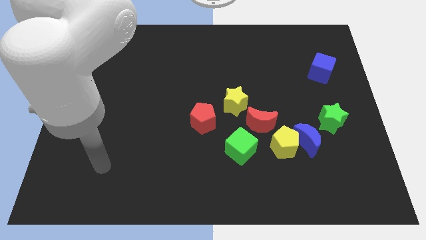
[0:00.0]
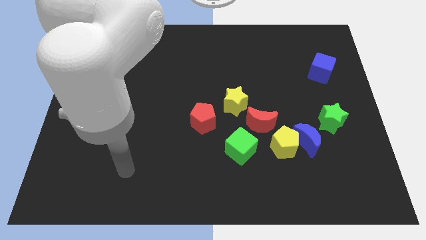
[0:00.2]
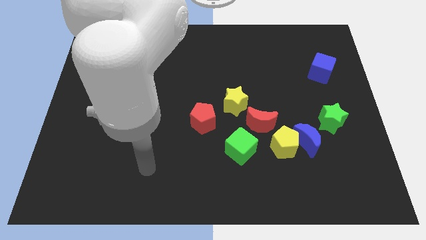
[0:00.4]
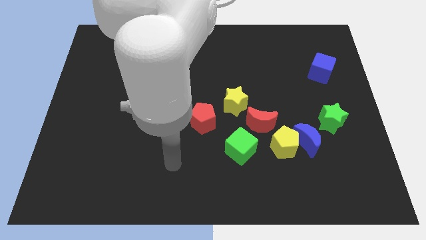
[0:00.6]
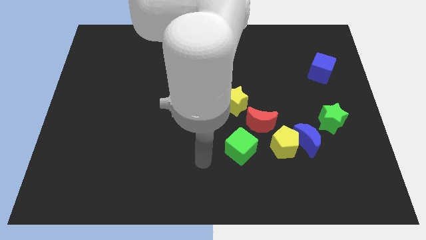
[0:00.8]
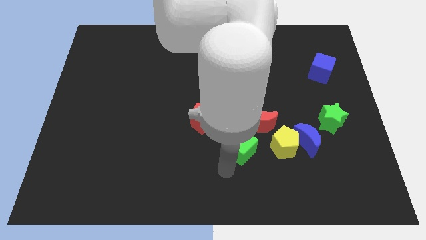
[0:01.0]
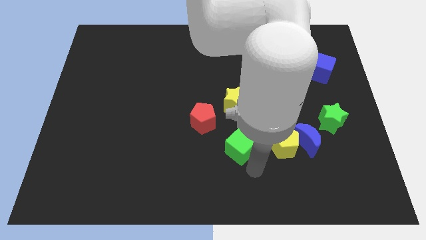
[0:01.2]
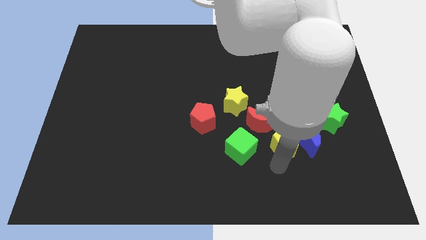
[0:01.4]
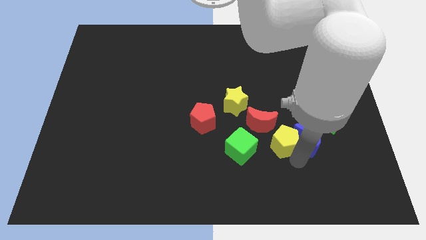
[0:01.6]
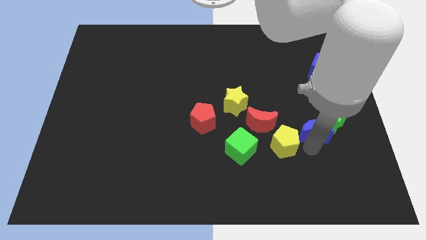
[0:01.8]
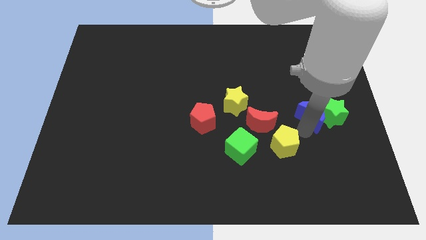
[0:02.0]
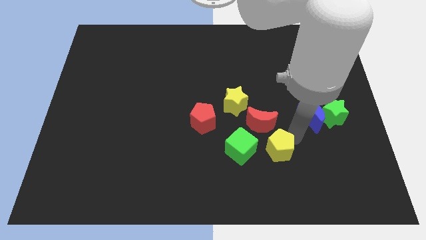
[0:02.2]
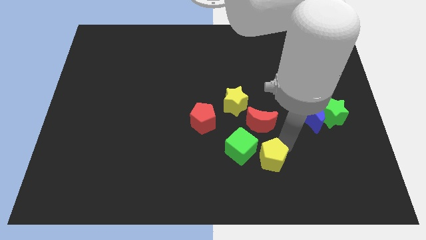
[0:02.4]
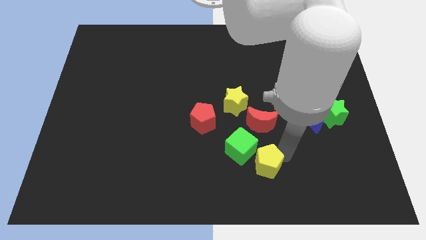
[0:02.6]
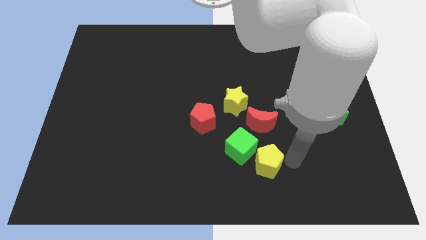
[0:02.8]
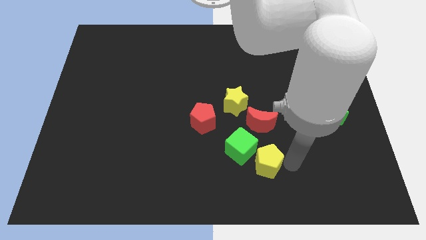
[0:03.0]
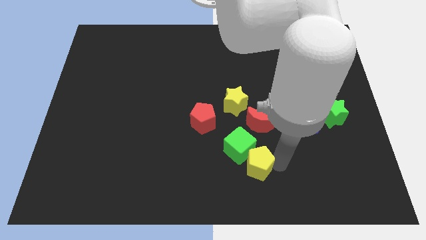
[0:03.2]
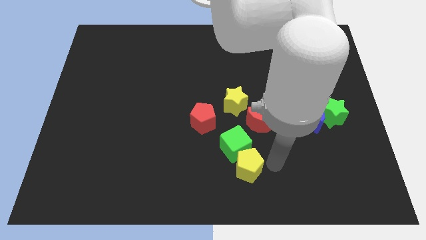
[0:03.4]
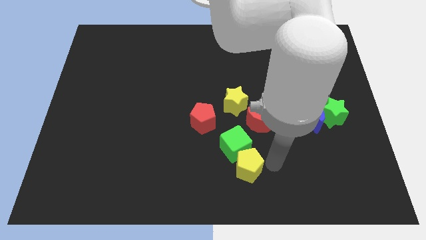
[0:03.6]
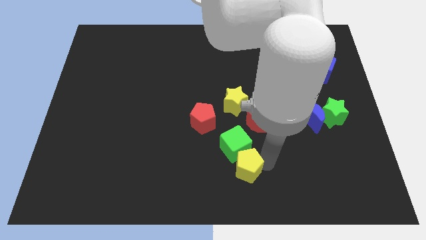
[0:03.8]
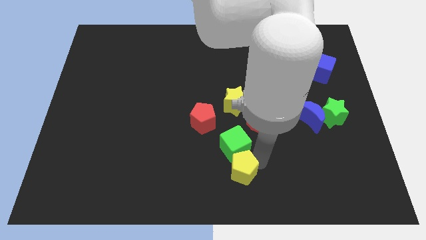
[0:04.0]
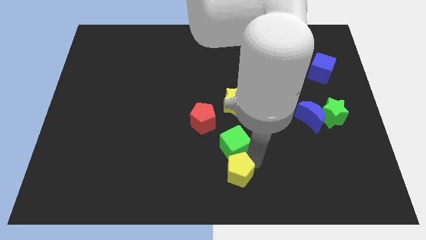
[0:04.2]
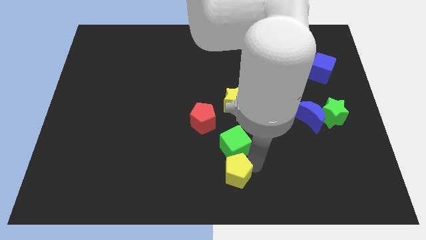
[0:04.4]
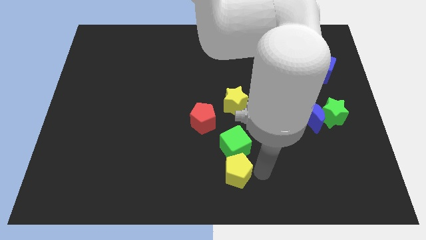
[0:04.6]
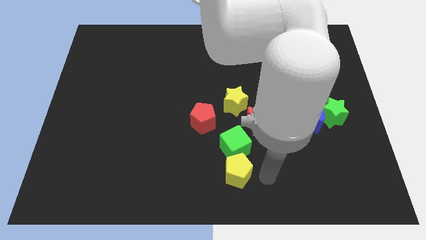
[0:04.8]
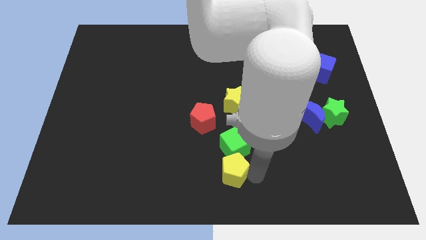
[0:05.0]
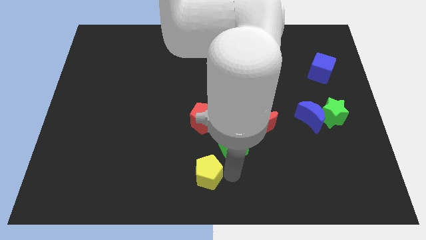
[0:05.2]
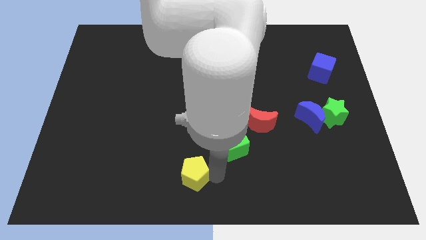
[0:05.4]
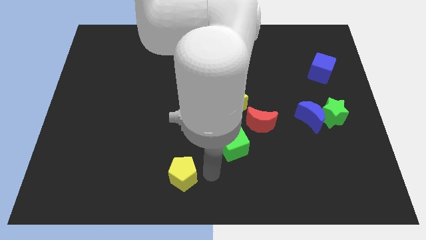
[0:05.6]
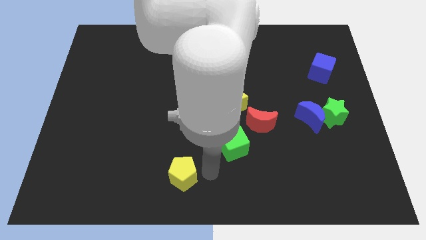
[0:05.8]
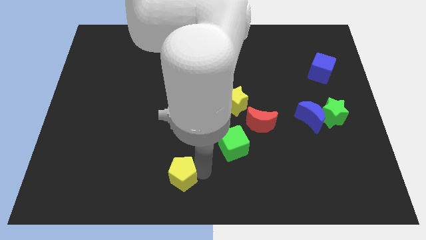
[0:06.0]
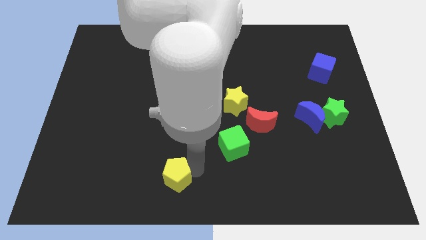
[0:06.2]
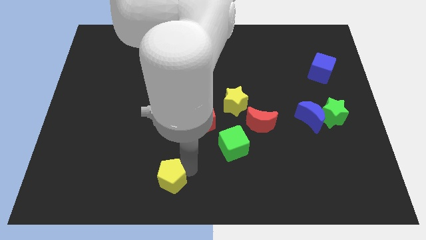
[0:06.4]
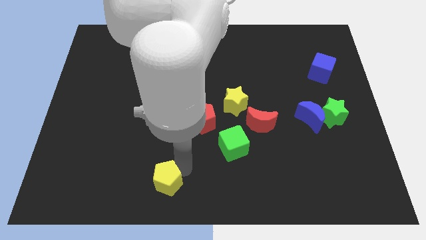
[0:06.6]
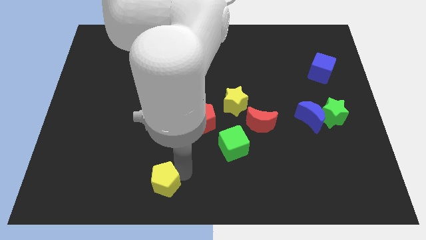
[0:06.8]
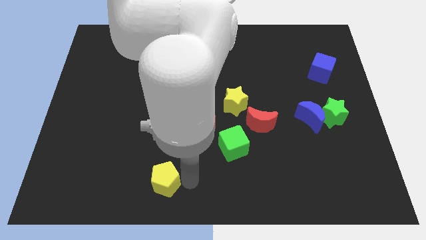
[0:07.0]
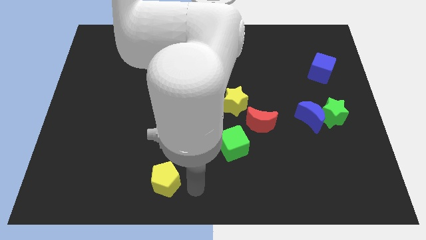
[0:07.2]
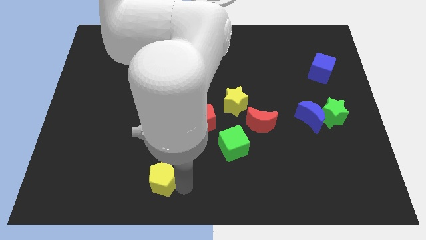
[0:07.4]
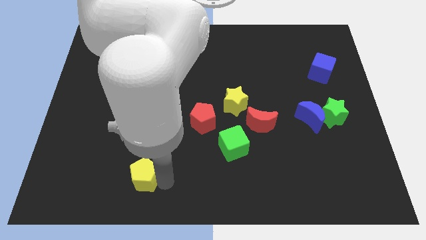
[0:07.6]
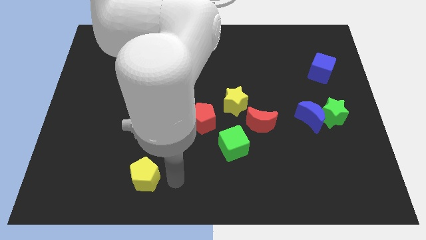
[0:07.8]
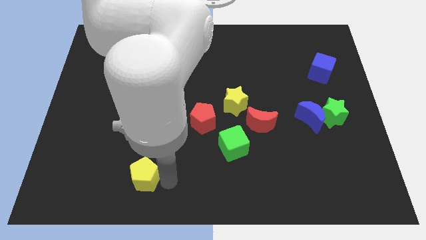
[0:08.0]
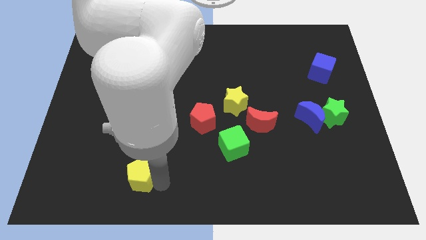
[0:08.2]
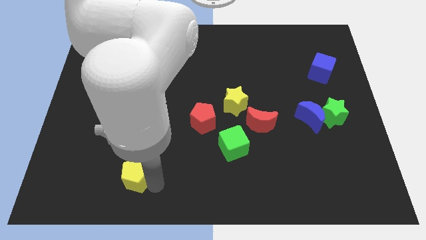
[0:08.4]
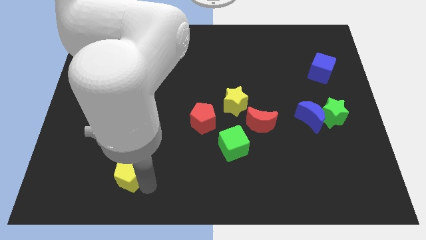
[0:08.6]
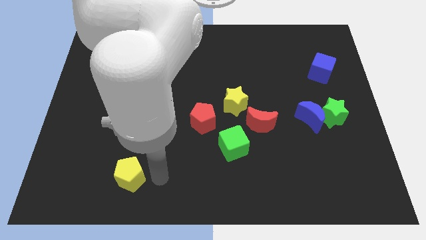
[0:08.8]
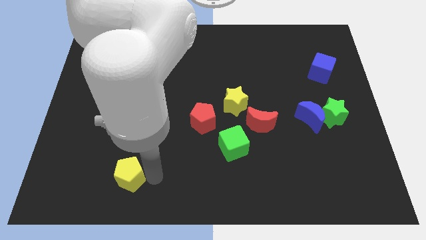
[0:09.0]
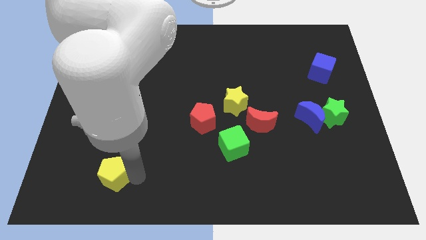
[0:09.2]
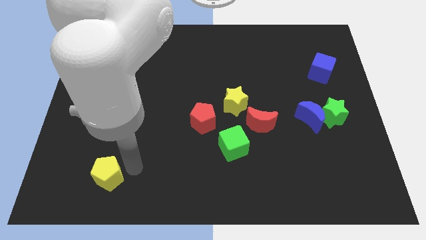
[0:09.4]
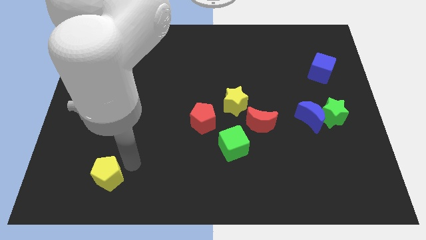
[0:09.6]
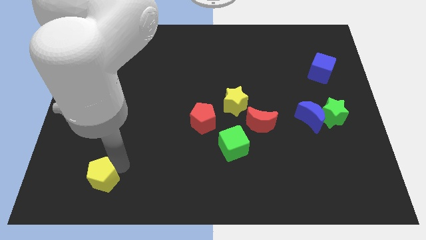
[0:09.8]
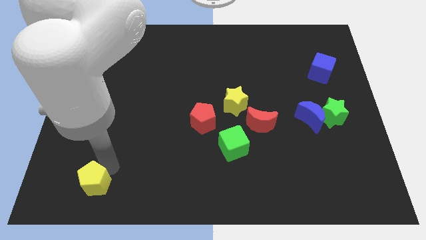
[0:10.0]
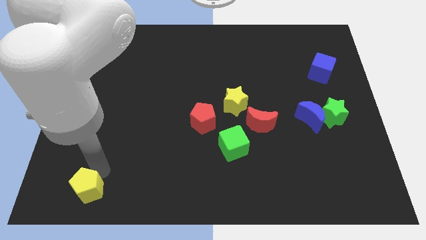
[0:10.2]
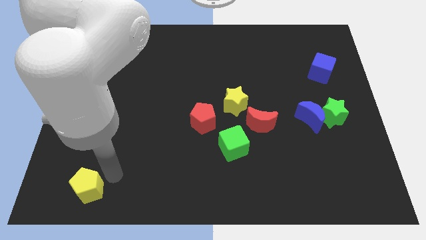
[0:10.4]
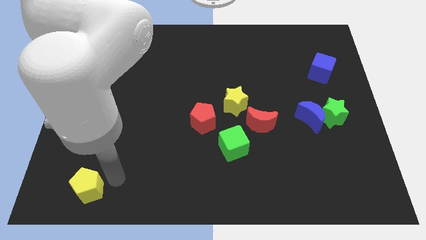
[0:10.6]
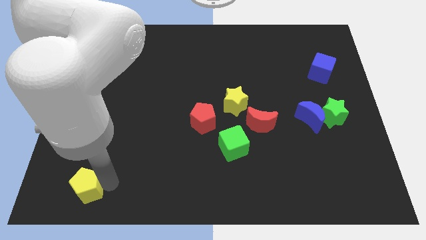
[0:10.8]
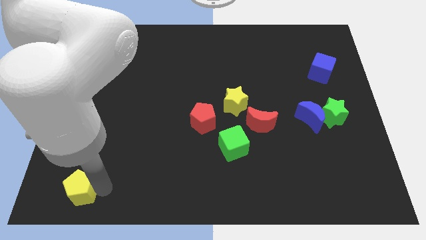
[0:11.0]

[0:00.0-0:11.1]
slide the yellow pentagon to the bottom left corner
